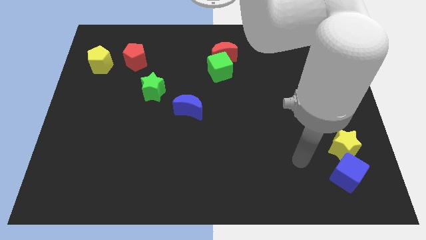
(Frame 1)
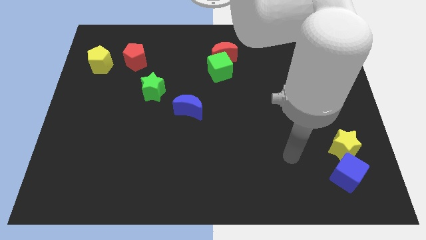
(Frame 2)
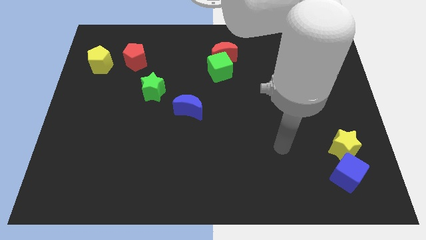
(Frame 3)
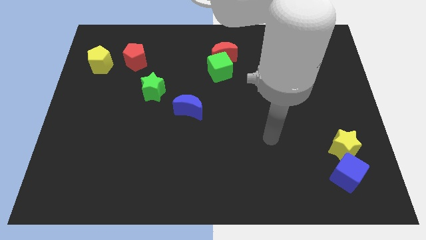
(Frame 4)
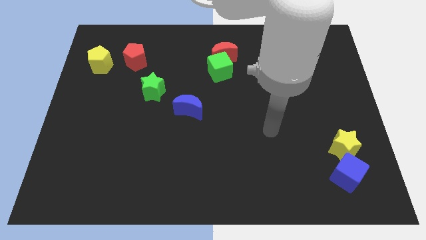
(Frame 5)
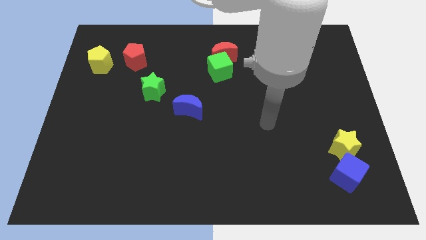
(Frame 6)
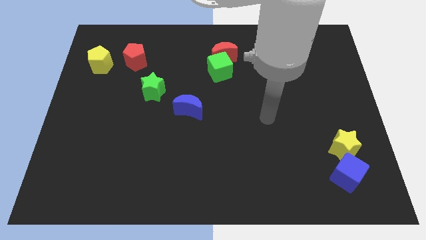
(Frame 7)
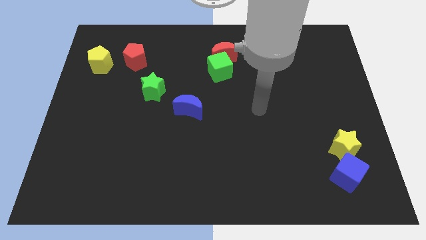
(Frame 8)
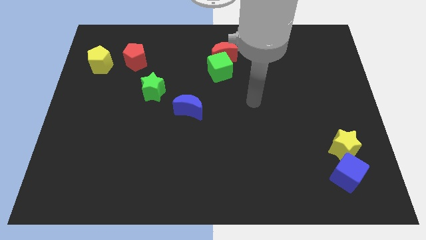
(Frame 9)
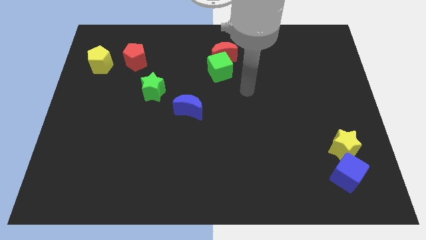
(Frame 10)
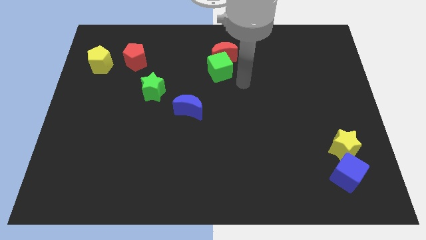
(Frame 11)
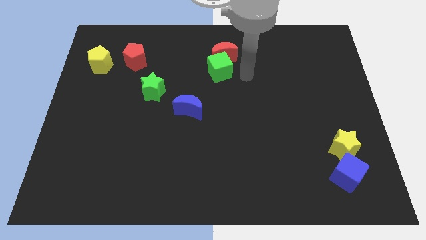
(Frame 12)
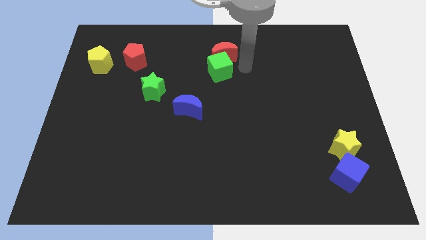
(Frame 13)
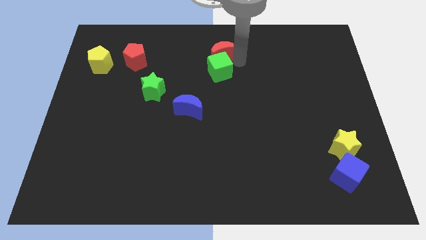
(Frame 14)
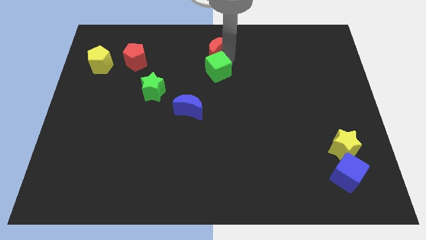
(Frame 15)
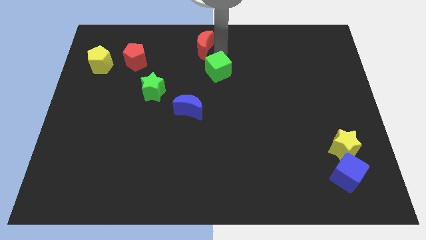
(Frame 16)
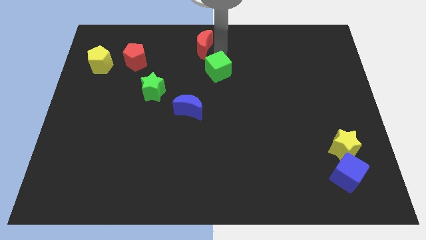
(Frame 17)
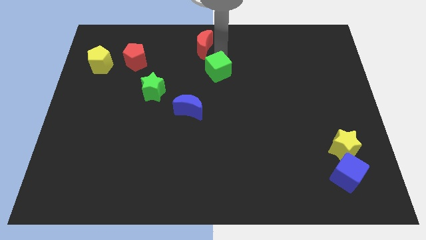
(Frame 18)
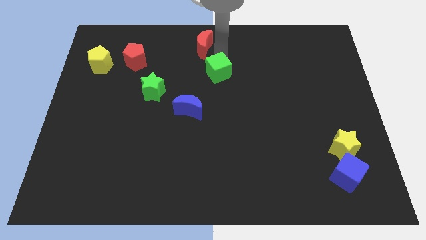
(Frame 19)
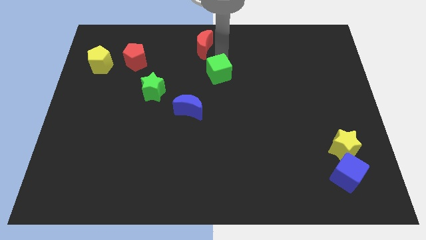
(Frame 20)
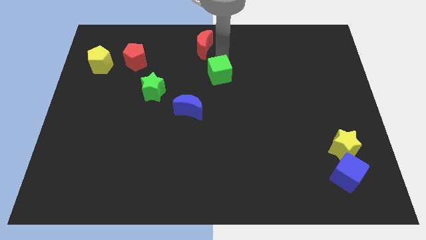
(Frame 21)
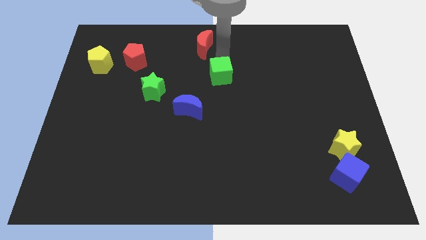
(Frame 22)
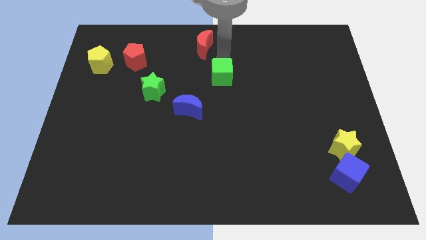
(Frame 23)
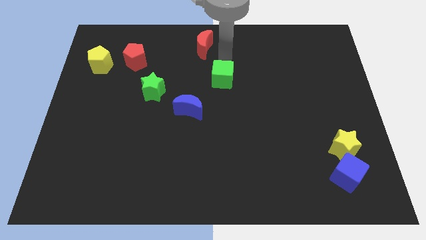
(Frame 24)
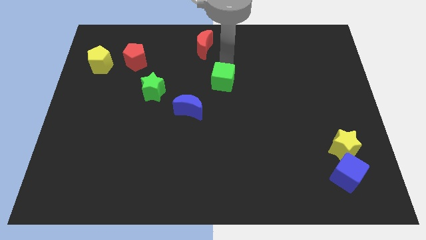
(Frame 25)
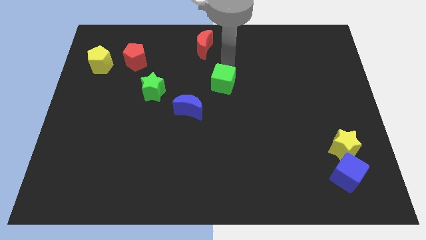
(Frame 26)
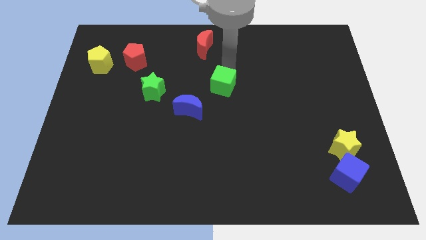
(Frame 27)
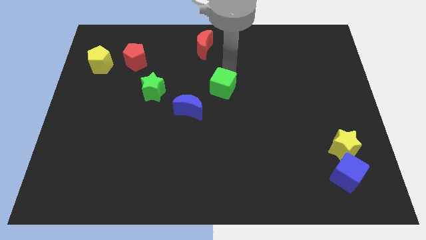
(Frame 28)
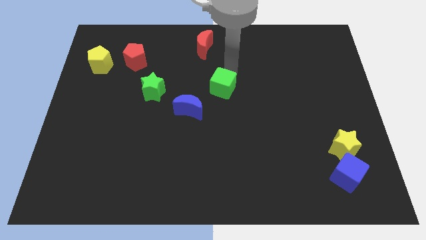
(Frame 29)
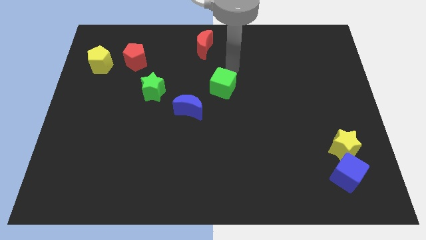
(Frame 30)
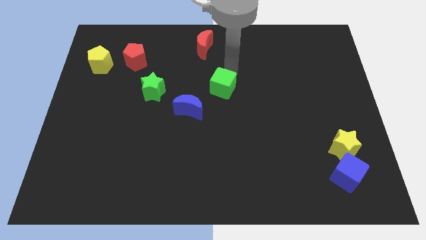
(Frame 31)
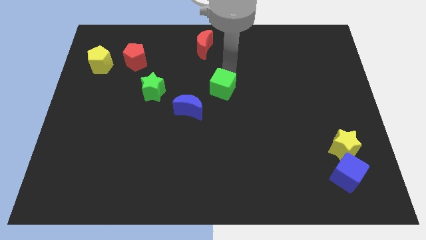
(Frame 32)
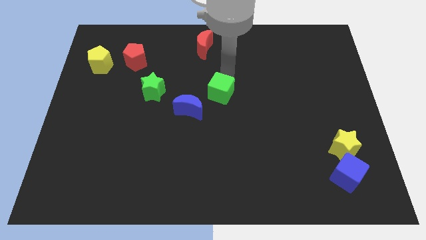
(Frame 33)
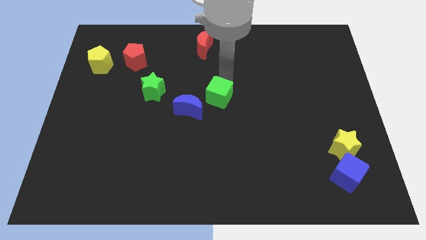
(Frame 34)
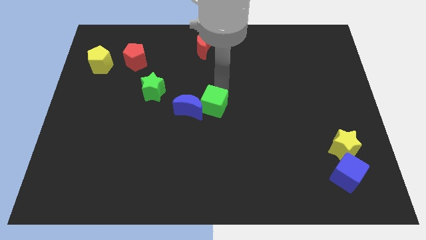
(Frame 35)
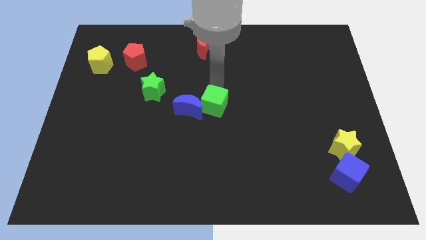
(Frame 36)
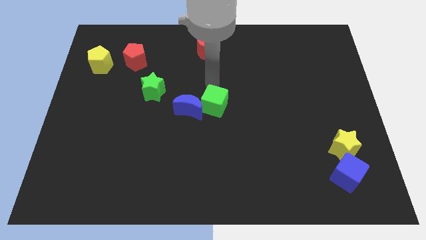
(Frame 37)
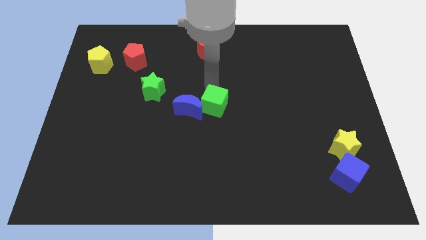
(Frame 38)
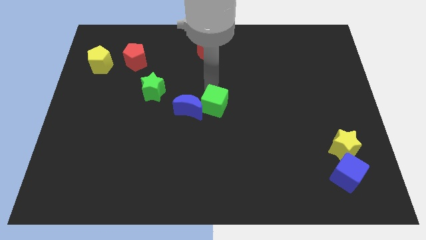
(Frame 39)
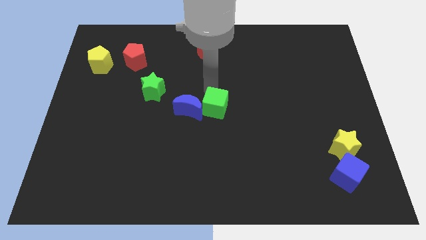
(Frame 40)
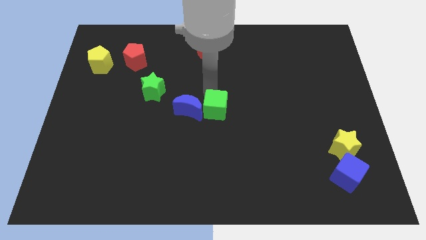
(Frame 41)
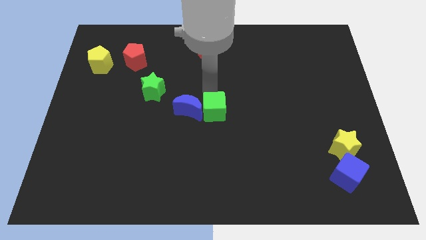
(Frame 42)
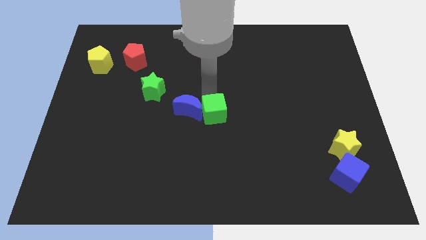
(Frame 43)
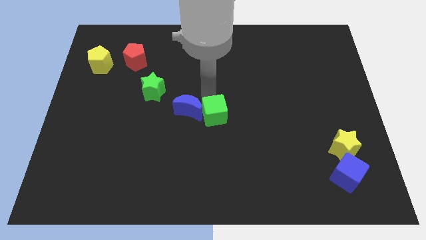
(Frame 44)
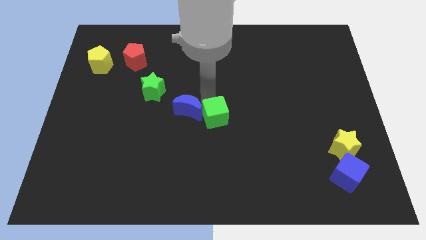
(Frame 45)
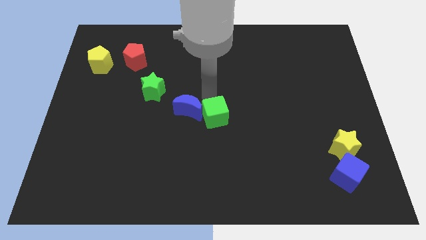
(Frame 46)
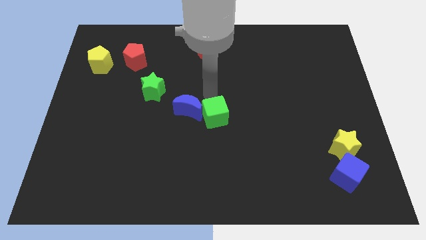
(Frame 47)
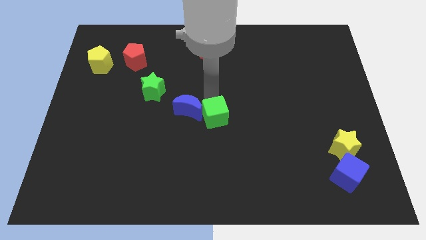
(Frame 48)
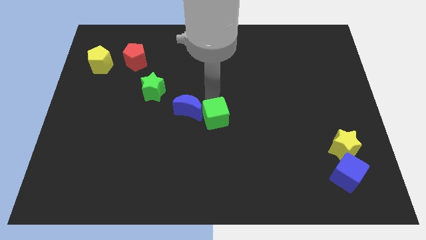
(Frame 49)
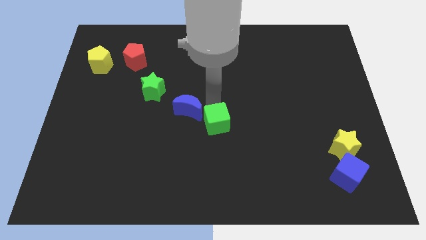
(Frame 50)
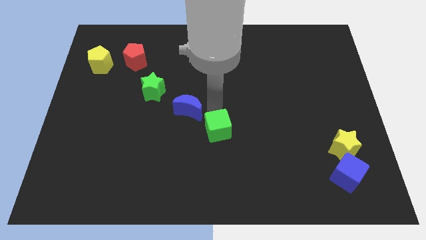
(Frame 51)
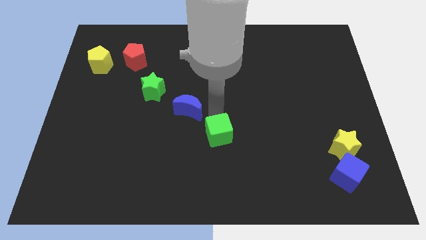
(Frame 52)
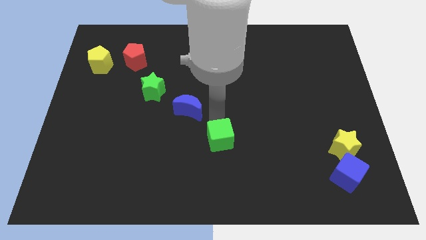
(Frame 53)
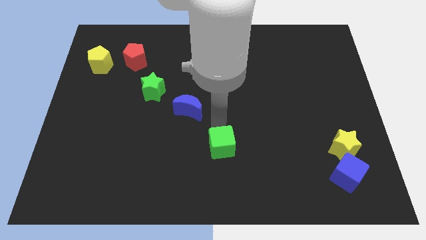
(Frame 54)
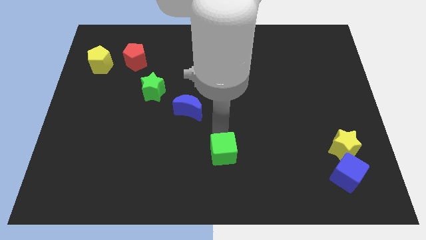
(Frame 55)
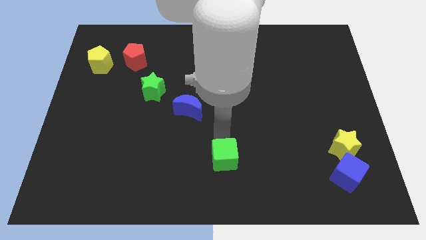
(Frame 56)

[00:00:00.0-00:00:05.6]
move the green cube to the bottom side

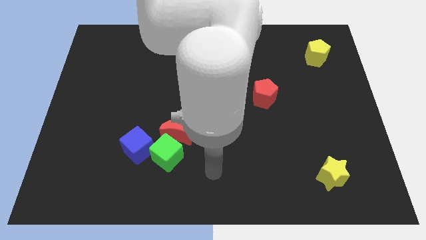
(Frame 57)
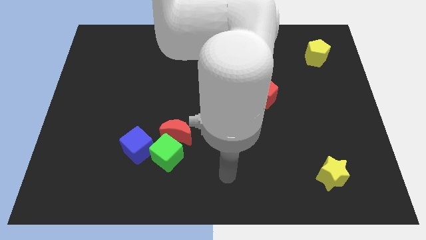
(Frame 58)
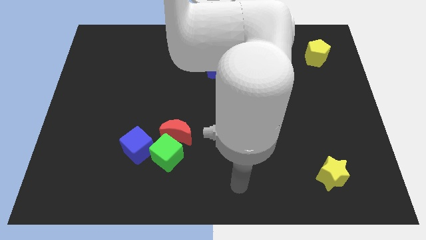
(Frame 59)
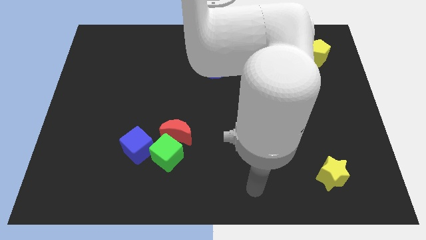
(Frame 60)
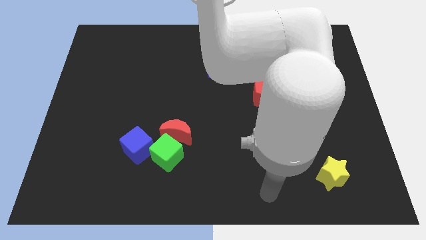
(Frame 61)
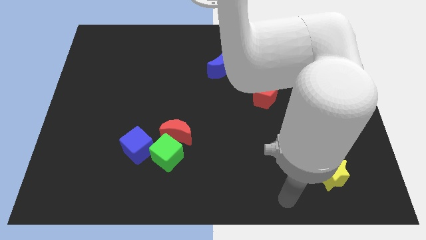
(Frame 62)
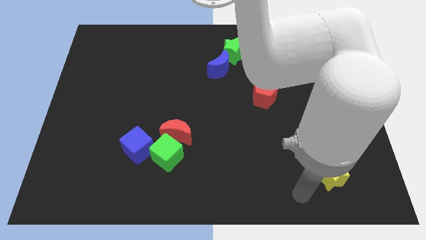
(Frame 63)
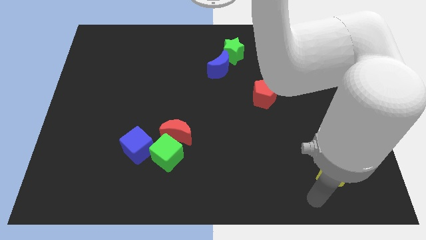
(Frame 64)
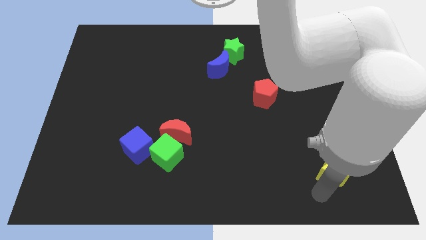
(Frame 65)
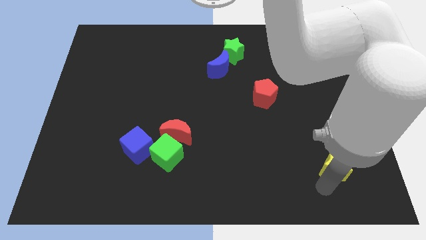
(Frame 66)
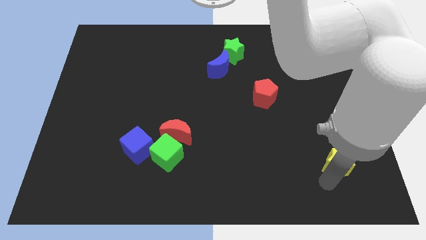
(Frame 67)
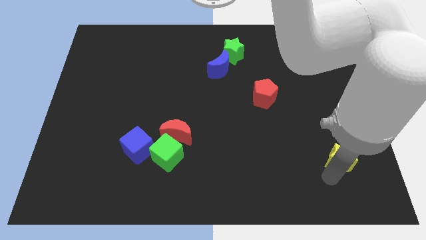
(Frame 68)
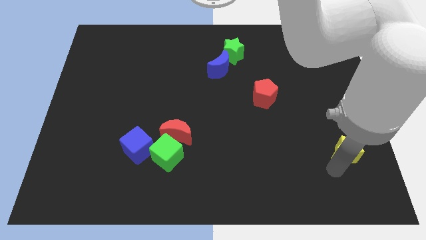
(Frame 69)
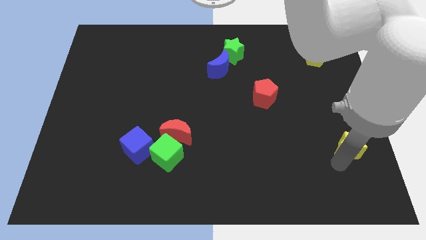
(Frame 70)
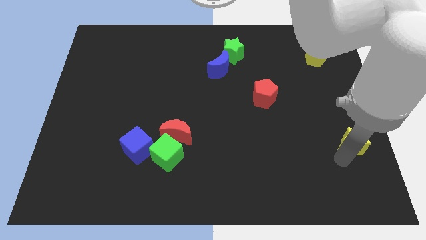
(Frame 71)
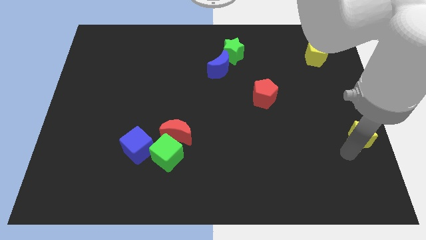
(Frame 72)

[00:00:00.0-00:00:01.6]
put the yellow star to the right side of the board
